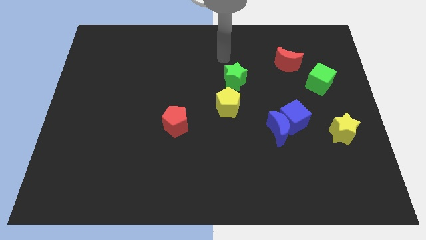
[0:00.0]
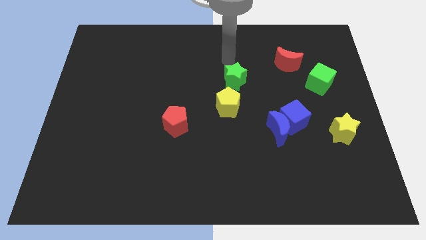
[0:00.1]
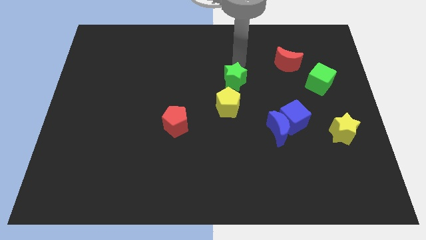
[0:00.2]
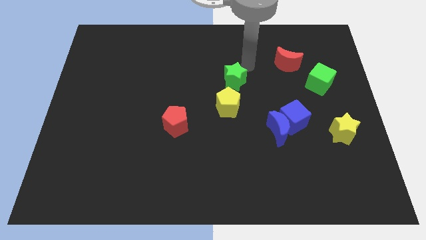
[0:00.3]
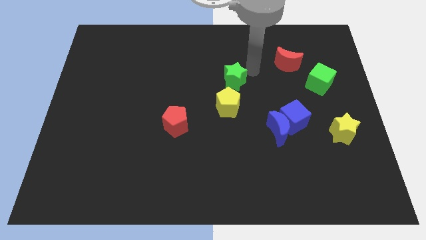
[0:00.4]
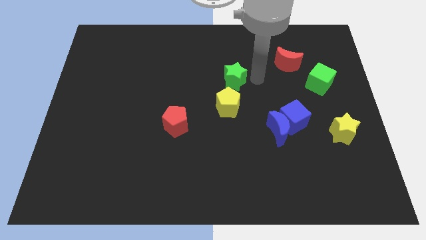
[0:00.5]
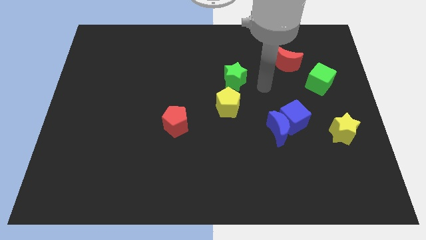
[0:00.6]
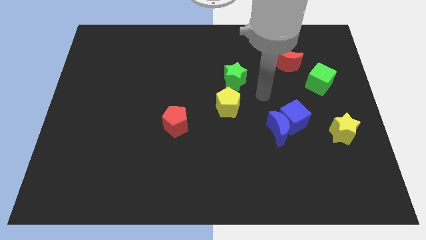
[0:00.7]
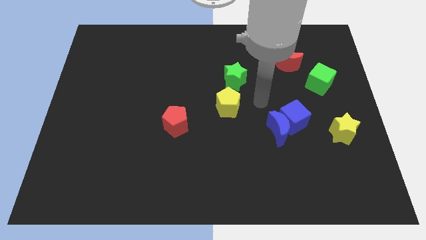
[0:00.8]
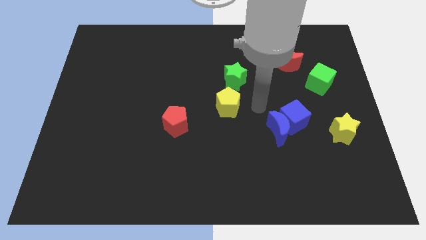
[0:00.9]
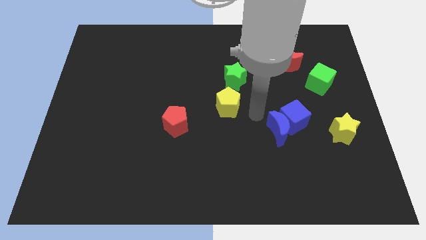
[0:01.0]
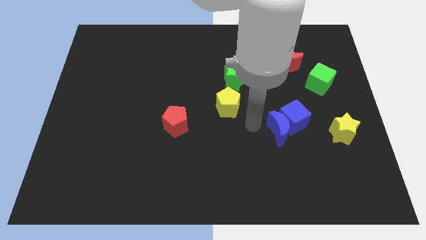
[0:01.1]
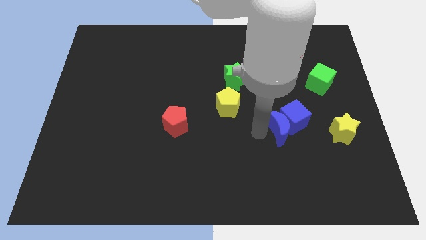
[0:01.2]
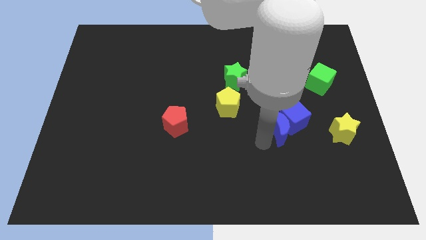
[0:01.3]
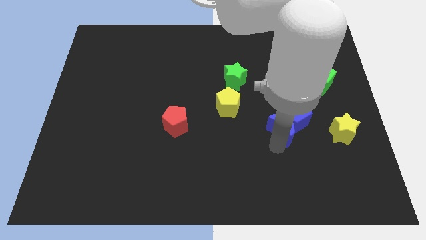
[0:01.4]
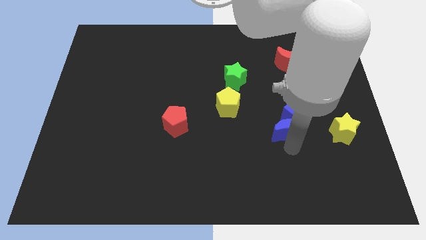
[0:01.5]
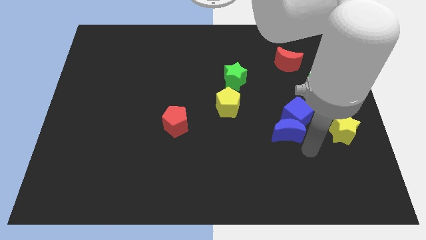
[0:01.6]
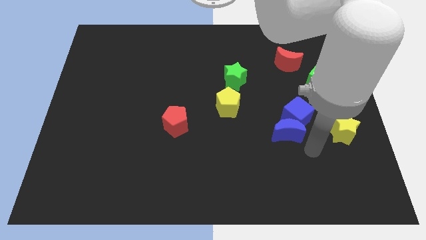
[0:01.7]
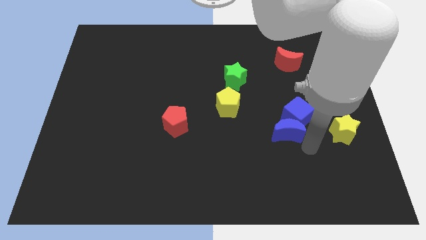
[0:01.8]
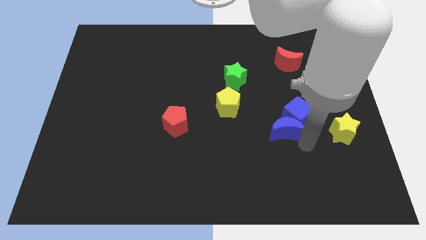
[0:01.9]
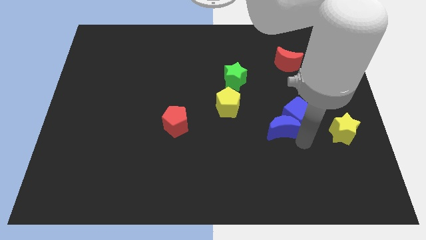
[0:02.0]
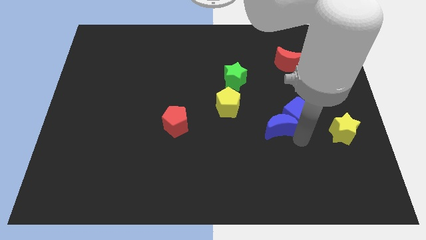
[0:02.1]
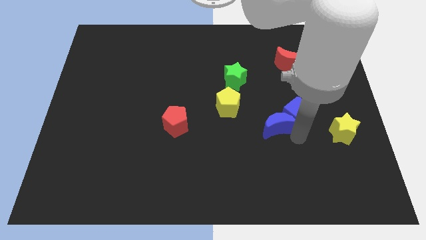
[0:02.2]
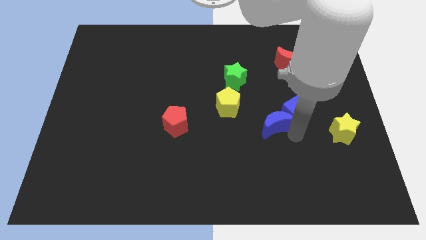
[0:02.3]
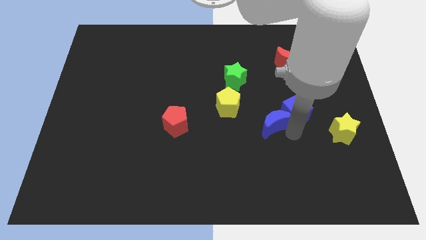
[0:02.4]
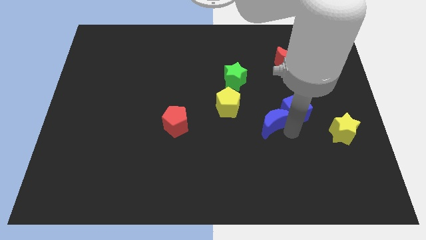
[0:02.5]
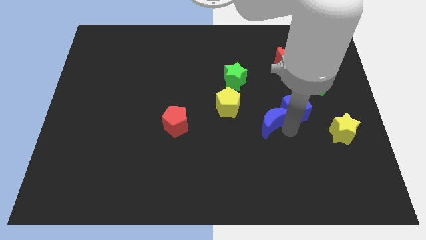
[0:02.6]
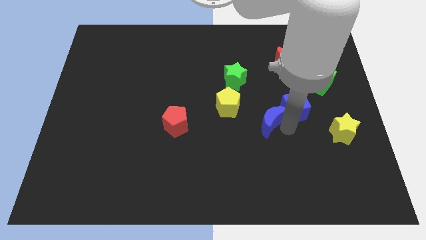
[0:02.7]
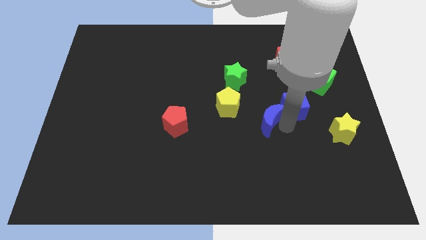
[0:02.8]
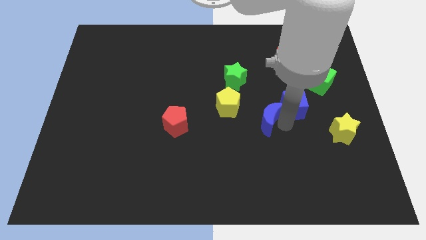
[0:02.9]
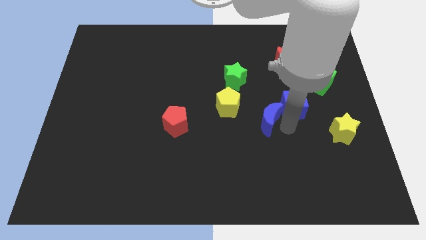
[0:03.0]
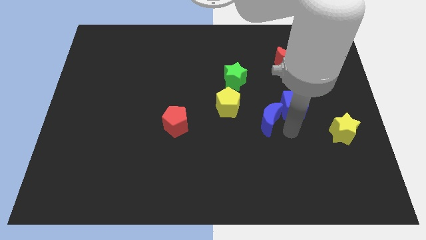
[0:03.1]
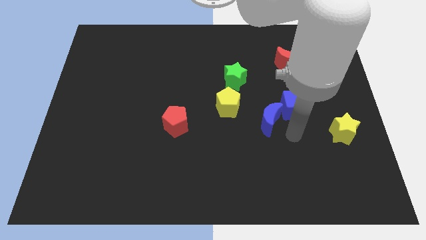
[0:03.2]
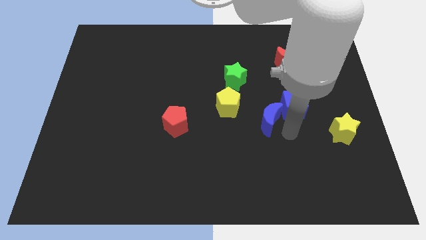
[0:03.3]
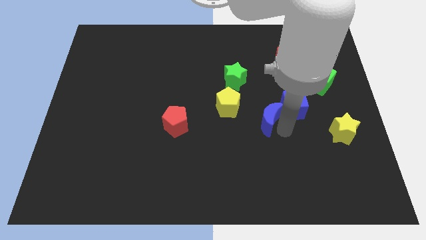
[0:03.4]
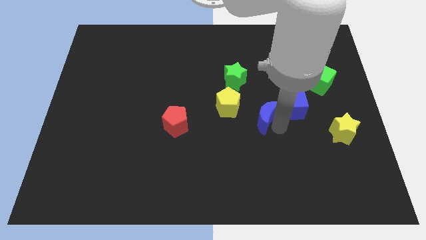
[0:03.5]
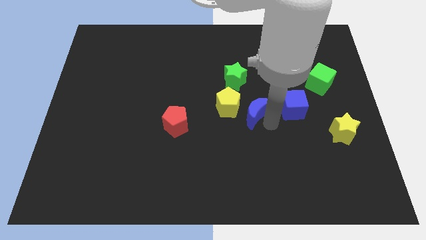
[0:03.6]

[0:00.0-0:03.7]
slide the blue moon slightly up and then to the left

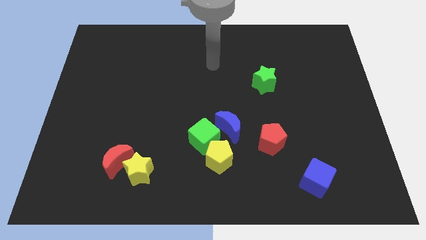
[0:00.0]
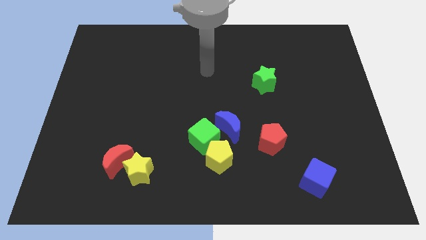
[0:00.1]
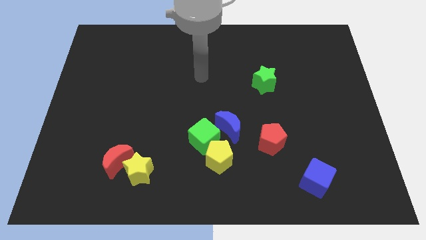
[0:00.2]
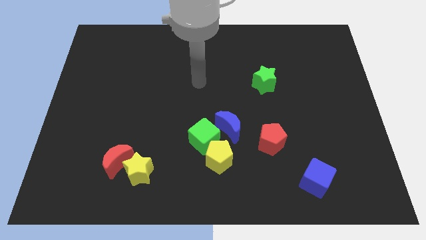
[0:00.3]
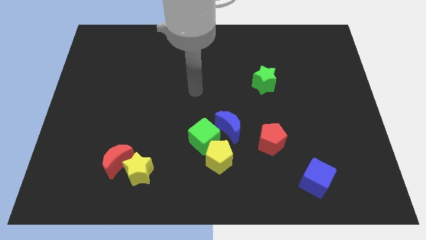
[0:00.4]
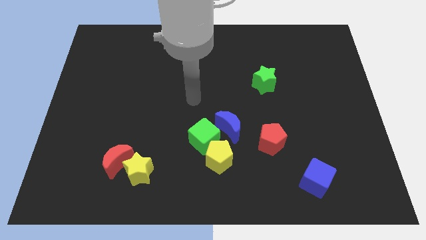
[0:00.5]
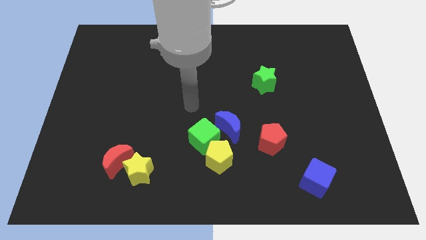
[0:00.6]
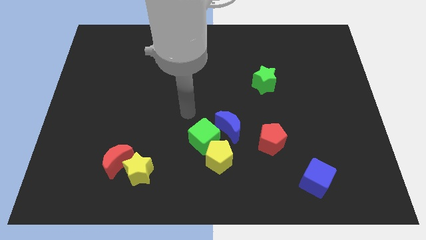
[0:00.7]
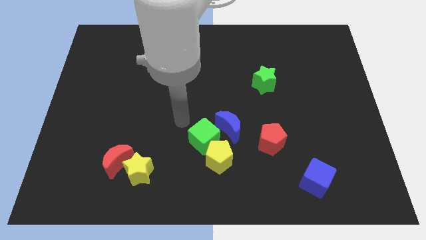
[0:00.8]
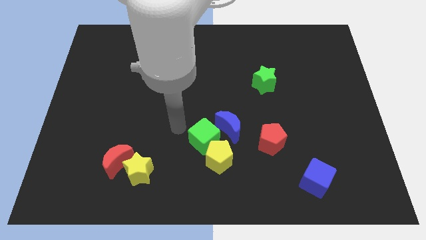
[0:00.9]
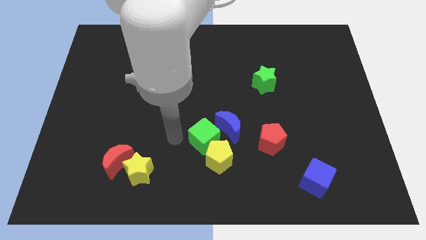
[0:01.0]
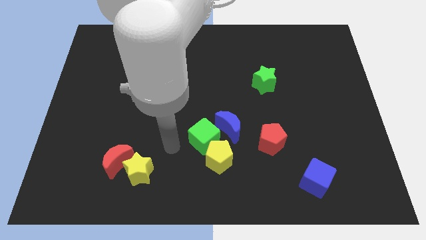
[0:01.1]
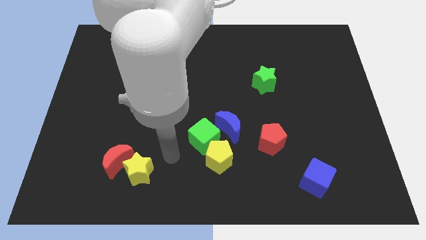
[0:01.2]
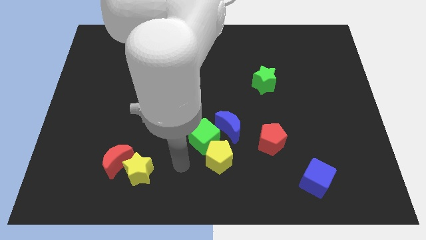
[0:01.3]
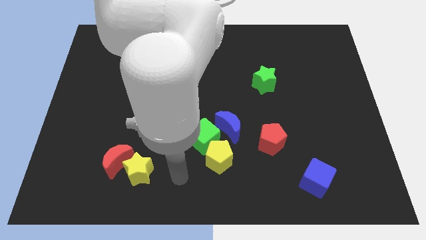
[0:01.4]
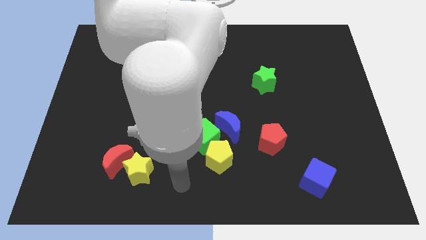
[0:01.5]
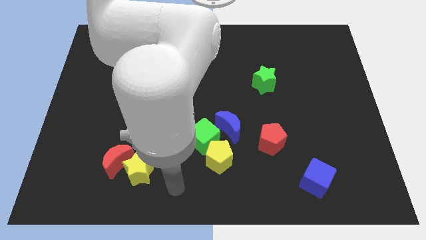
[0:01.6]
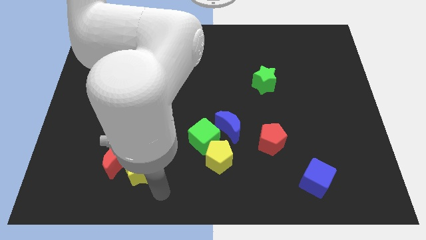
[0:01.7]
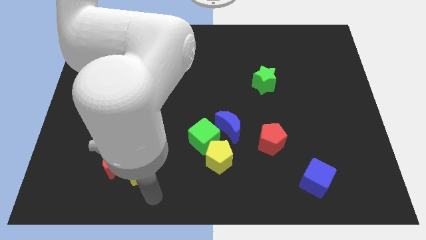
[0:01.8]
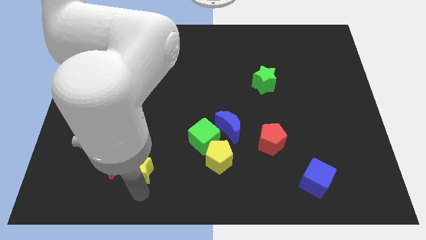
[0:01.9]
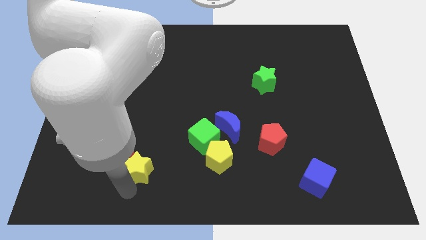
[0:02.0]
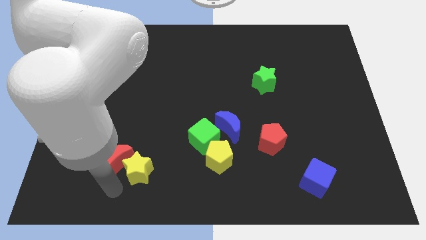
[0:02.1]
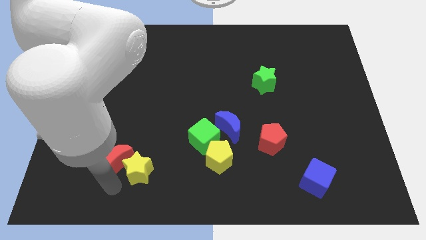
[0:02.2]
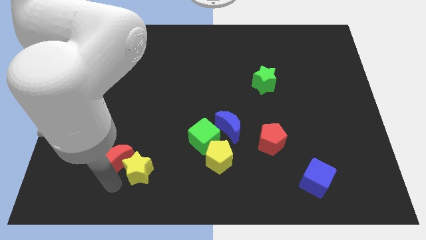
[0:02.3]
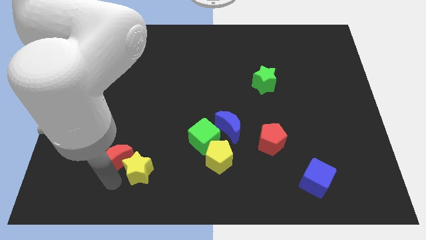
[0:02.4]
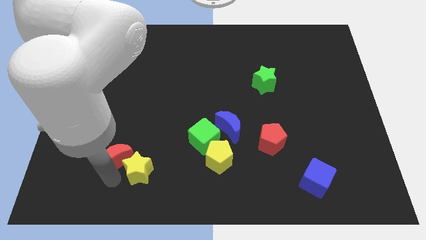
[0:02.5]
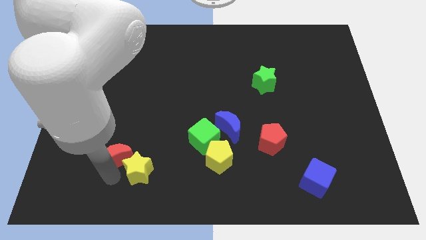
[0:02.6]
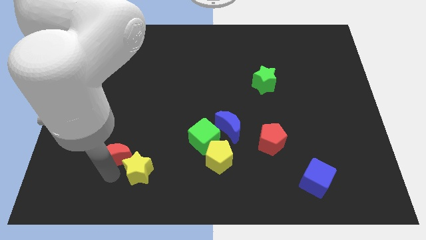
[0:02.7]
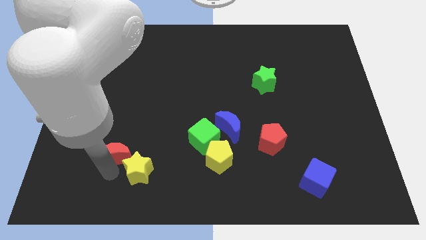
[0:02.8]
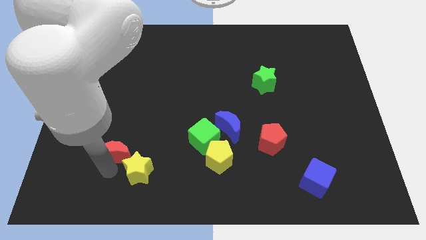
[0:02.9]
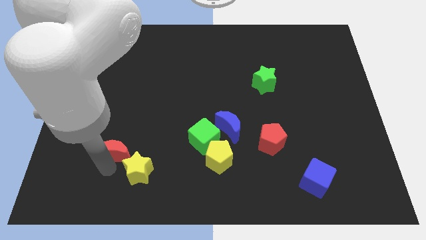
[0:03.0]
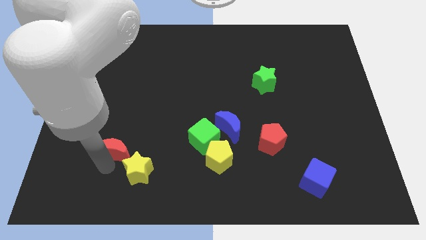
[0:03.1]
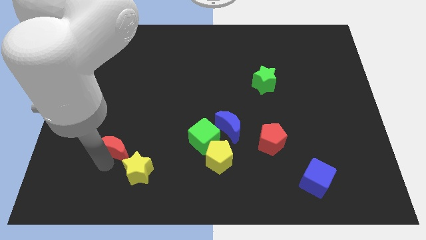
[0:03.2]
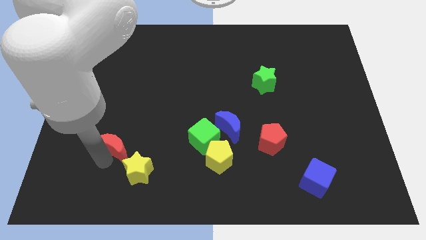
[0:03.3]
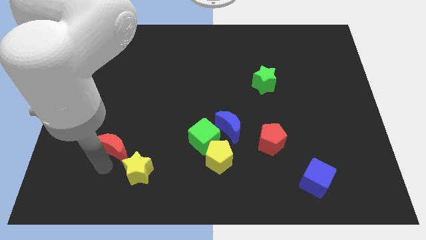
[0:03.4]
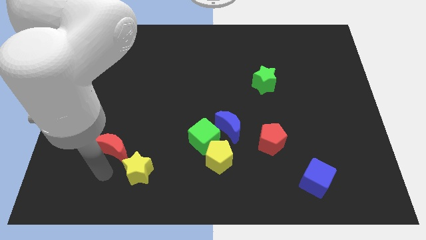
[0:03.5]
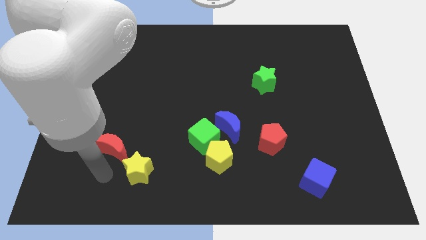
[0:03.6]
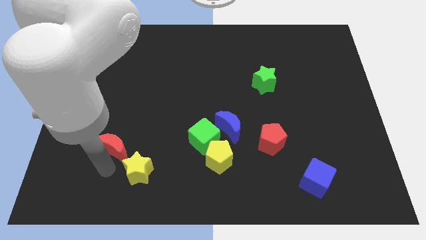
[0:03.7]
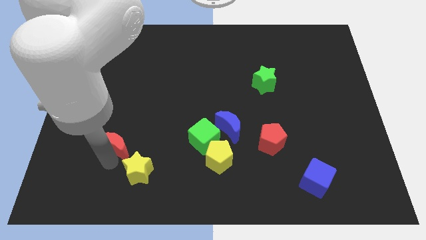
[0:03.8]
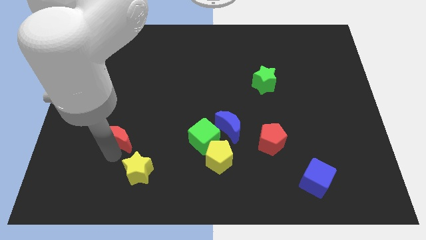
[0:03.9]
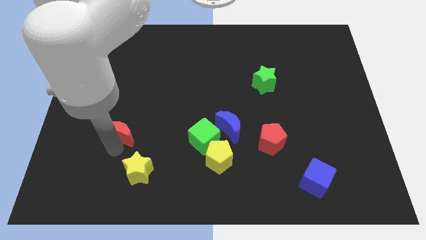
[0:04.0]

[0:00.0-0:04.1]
push the red moon a little bit upwards

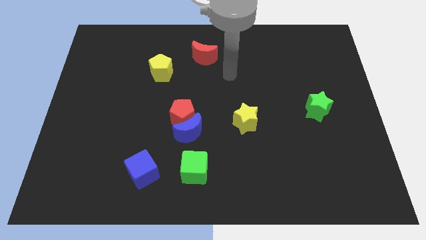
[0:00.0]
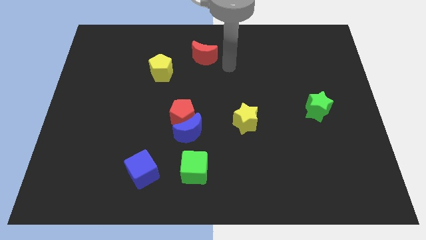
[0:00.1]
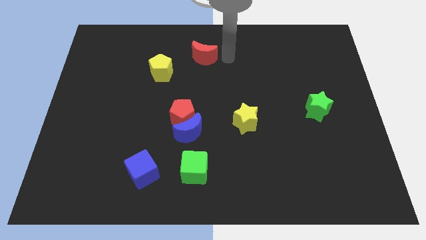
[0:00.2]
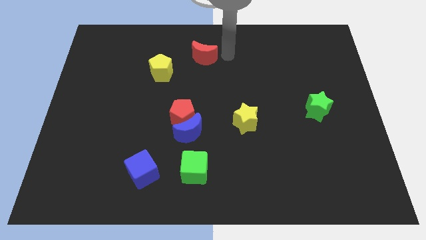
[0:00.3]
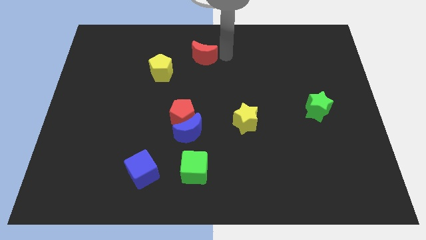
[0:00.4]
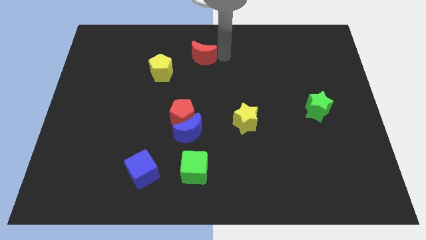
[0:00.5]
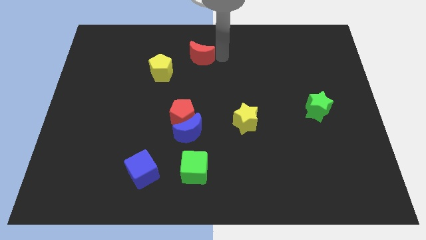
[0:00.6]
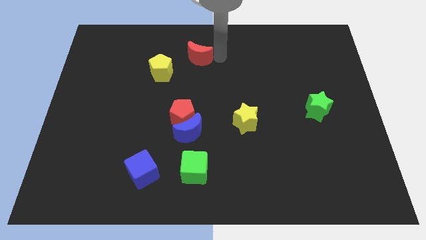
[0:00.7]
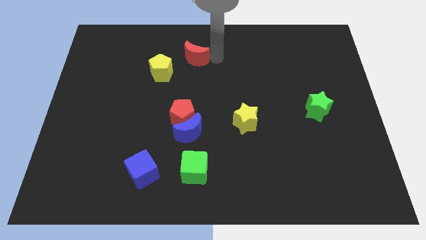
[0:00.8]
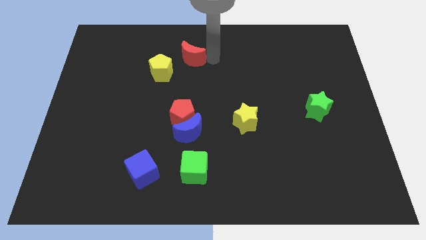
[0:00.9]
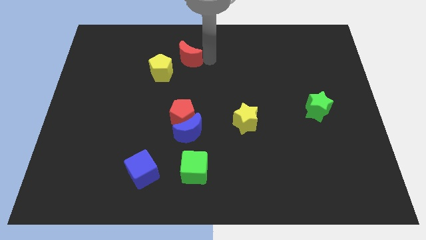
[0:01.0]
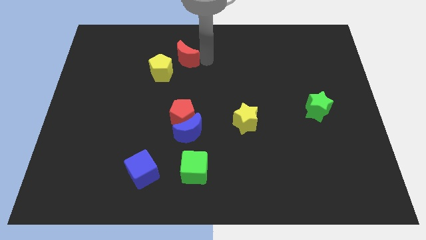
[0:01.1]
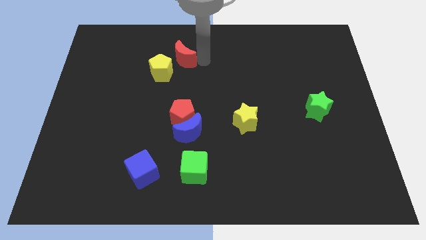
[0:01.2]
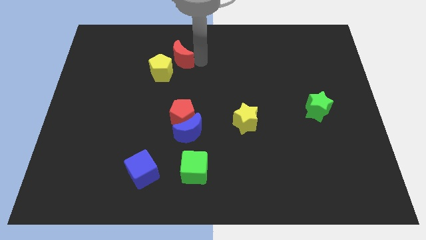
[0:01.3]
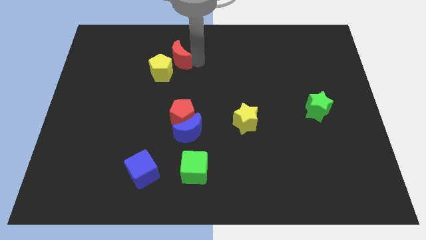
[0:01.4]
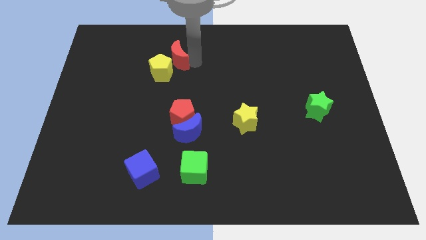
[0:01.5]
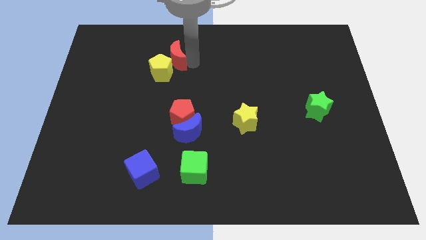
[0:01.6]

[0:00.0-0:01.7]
slide the red moon to the left a bit
